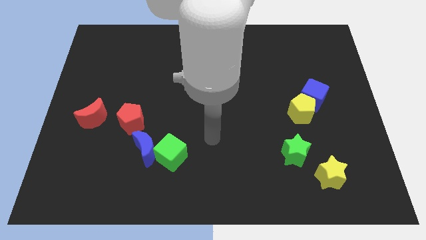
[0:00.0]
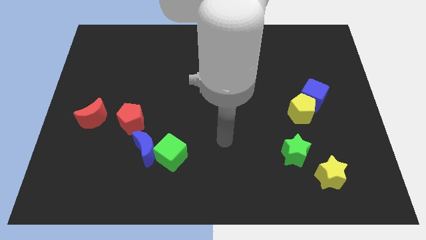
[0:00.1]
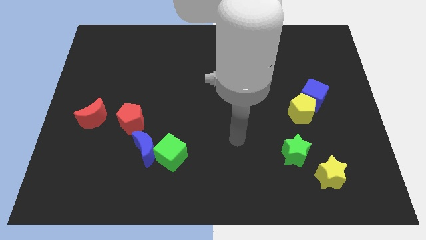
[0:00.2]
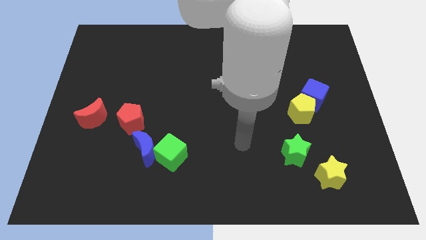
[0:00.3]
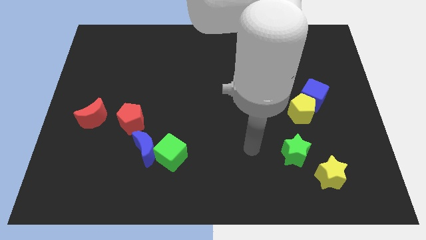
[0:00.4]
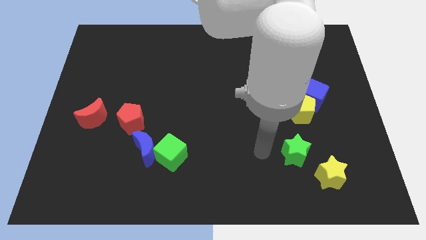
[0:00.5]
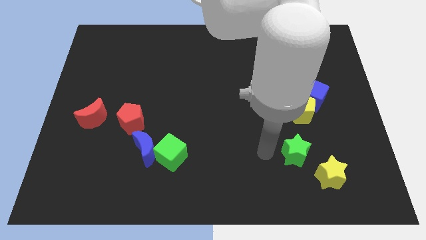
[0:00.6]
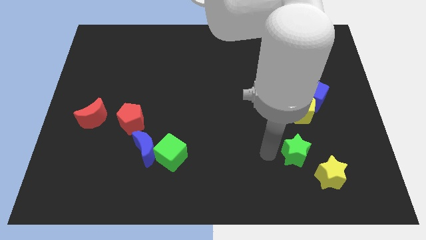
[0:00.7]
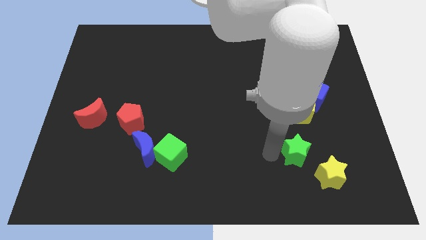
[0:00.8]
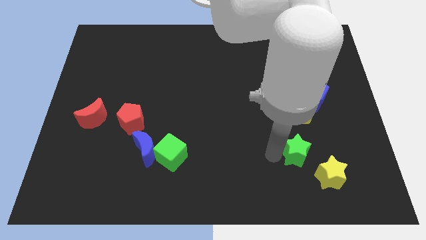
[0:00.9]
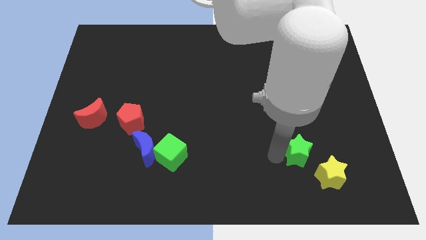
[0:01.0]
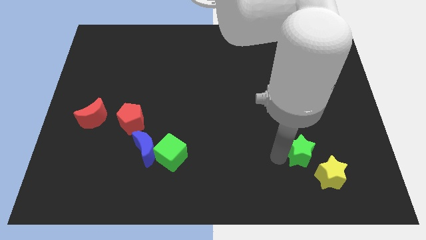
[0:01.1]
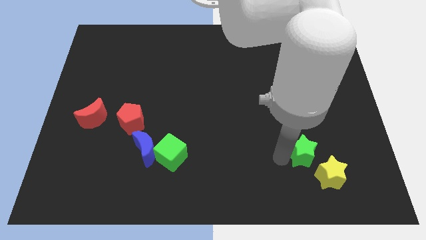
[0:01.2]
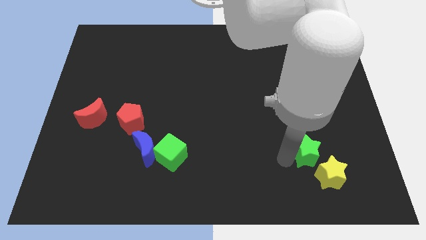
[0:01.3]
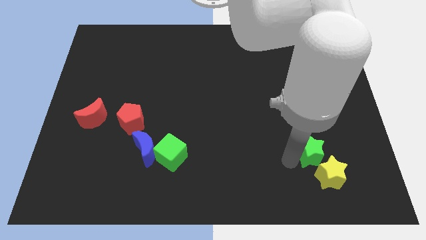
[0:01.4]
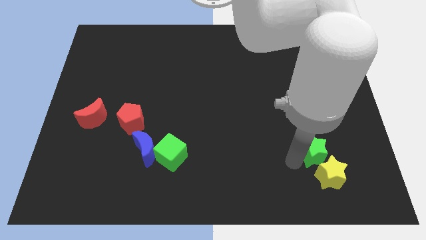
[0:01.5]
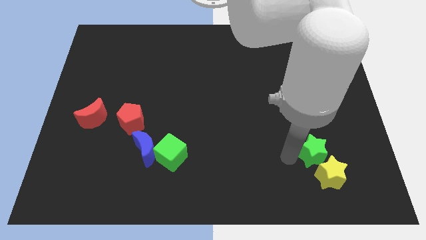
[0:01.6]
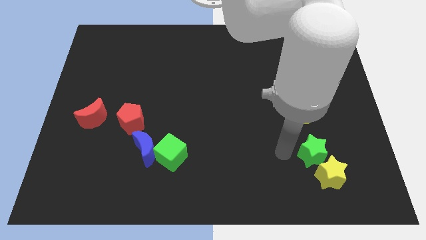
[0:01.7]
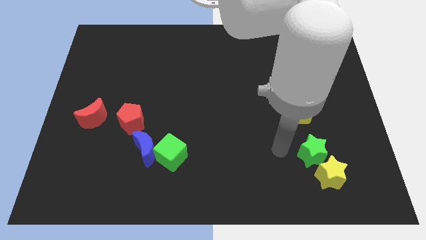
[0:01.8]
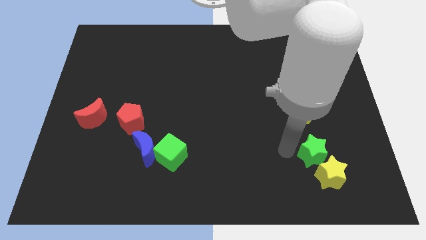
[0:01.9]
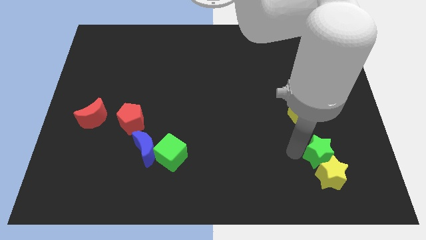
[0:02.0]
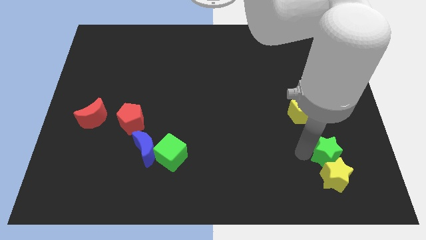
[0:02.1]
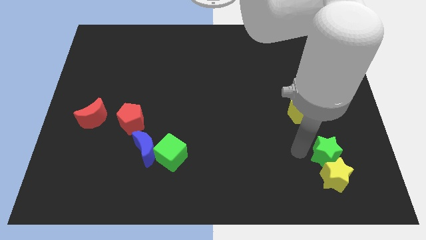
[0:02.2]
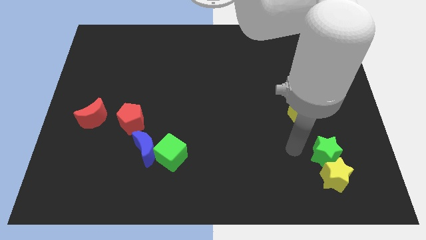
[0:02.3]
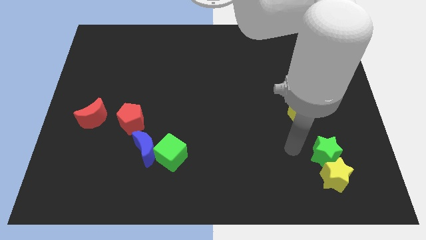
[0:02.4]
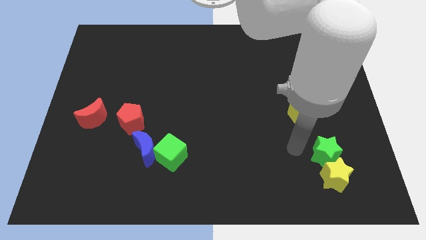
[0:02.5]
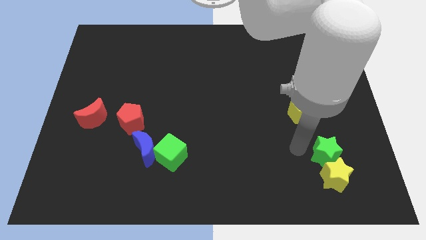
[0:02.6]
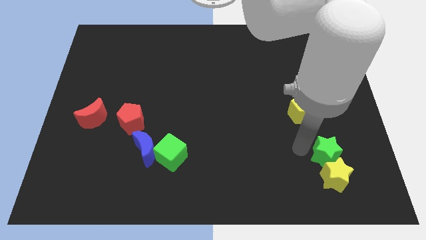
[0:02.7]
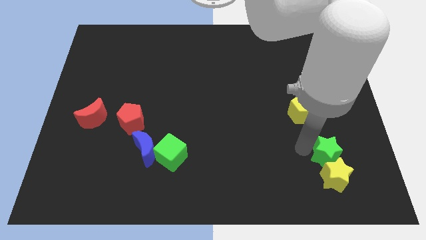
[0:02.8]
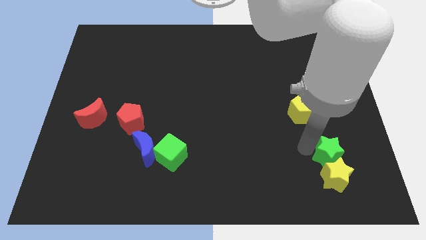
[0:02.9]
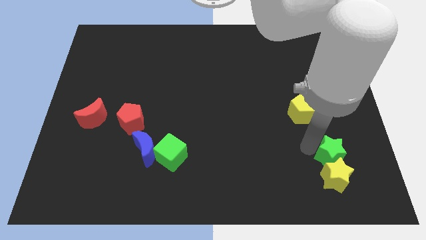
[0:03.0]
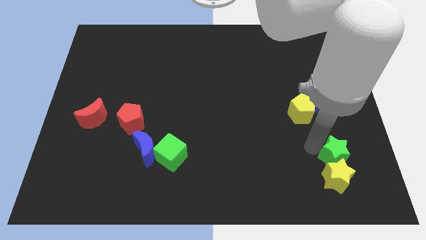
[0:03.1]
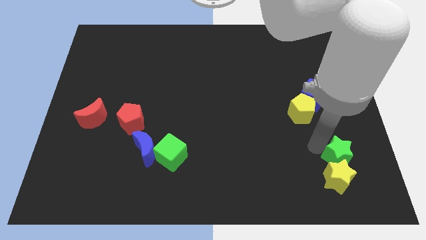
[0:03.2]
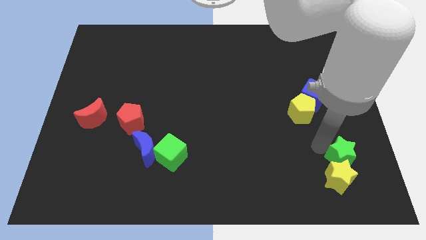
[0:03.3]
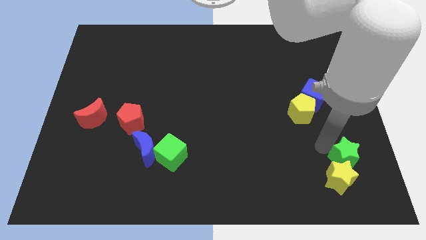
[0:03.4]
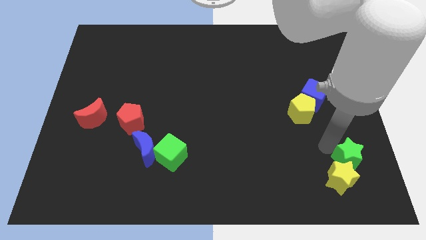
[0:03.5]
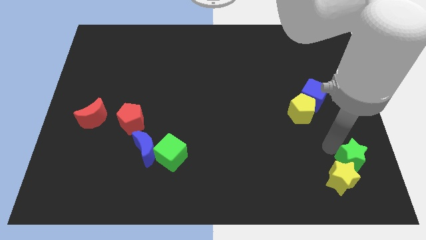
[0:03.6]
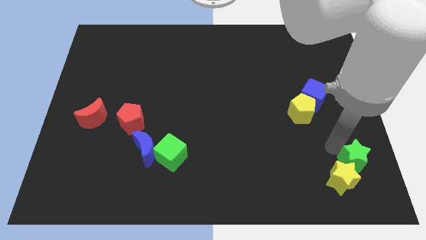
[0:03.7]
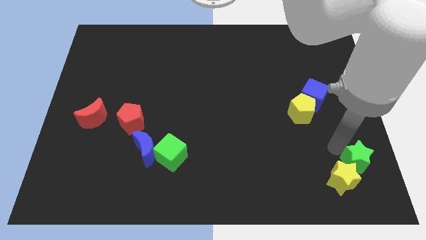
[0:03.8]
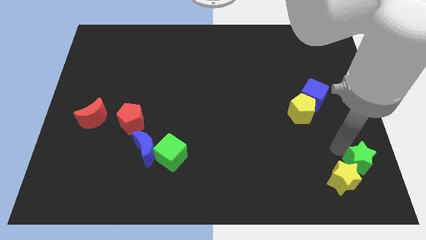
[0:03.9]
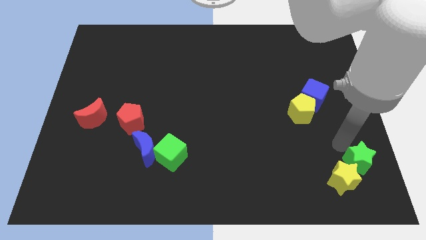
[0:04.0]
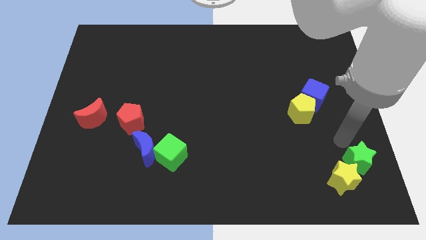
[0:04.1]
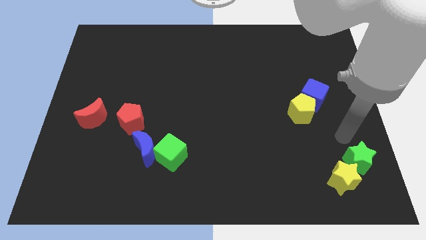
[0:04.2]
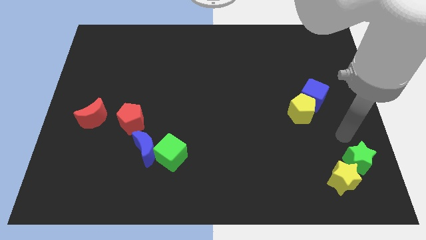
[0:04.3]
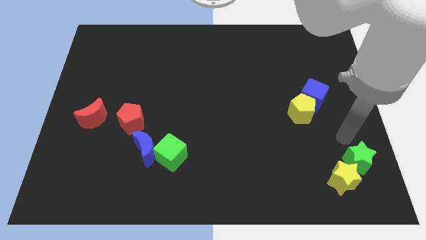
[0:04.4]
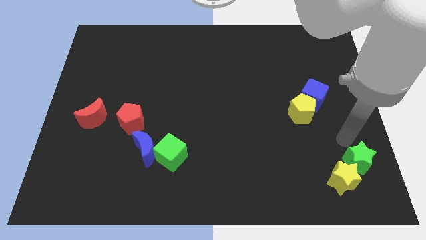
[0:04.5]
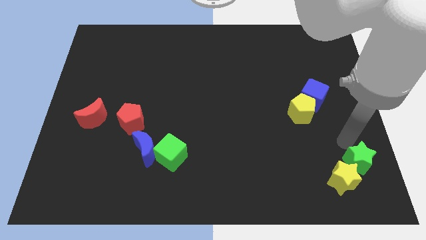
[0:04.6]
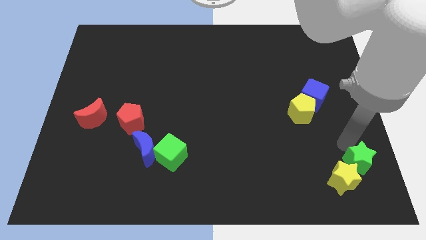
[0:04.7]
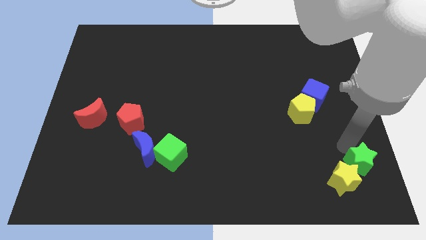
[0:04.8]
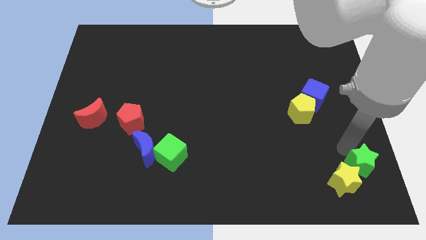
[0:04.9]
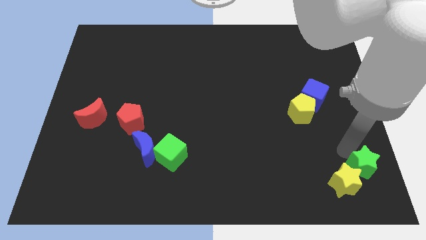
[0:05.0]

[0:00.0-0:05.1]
move the green star to the lower right corner

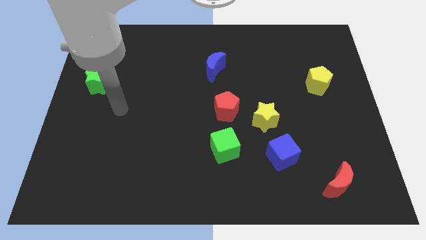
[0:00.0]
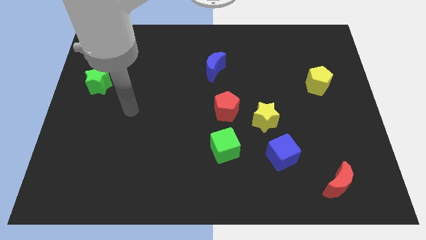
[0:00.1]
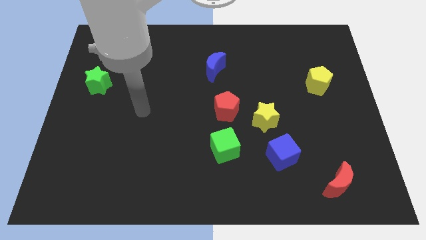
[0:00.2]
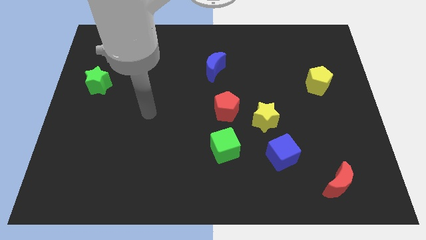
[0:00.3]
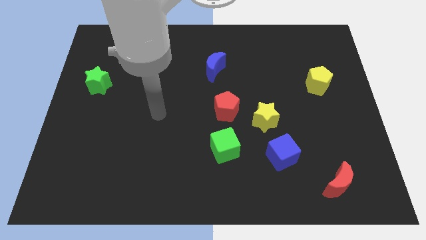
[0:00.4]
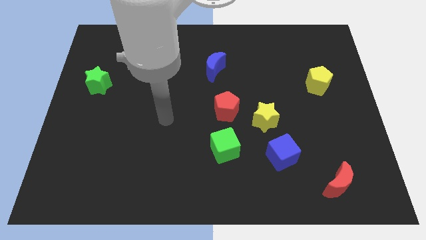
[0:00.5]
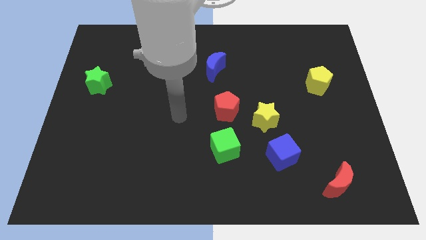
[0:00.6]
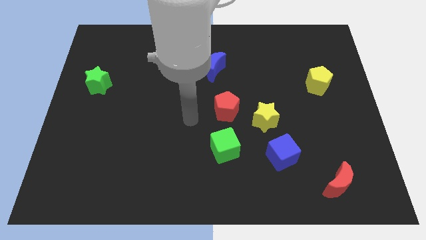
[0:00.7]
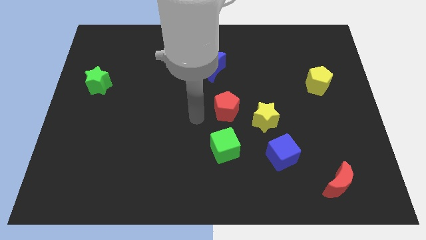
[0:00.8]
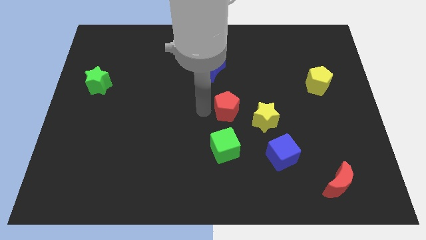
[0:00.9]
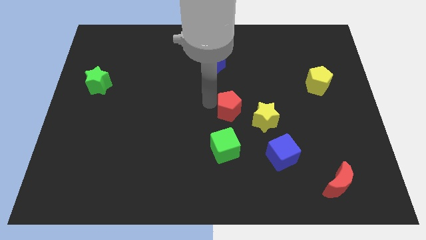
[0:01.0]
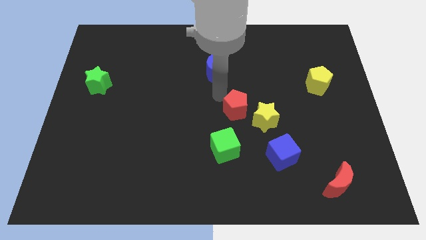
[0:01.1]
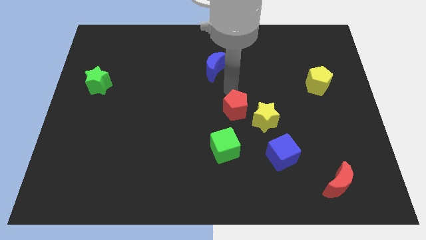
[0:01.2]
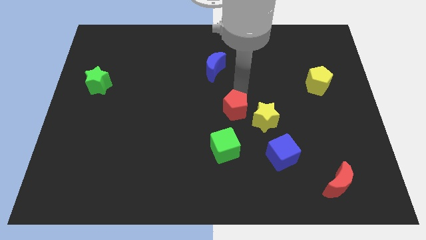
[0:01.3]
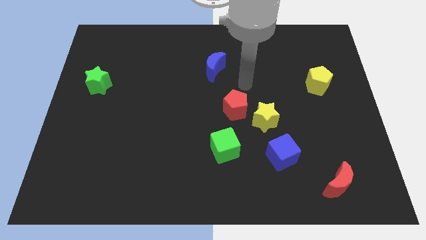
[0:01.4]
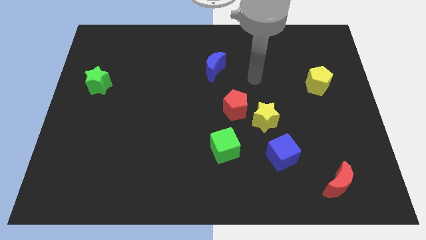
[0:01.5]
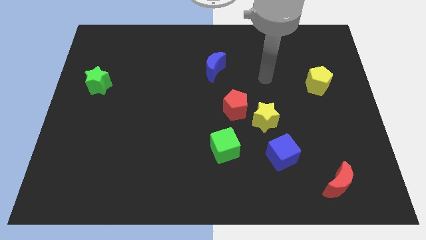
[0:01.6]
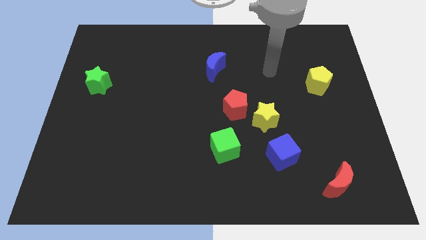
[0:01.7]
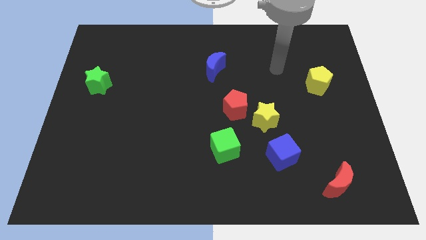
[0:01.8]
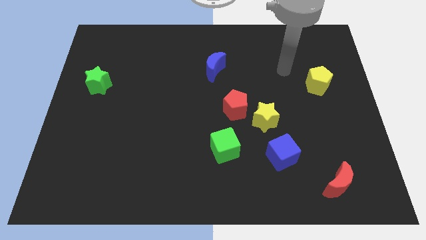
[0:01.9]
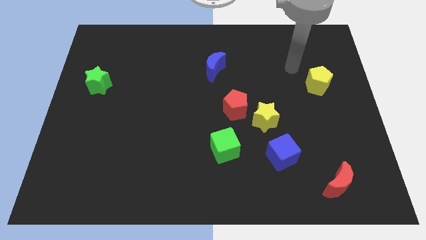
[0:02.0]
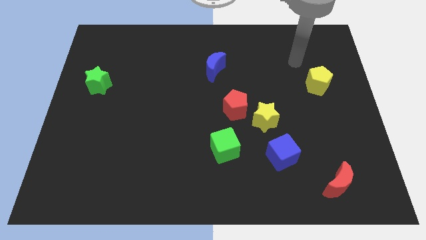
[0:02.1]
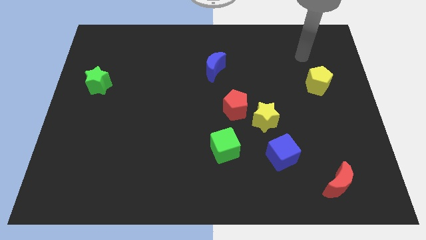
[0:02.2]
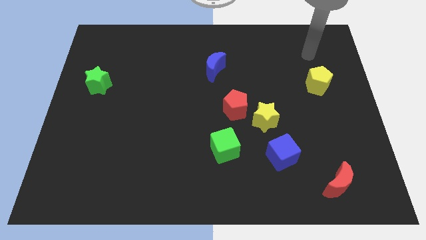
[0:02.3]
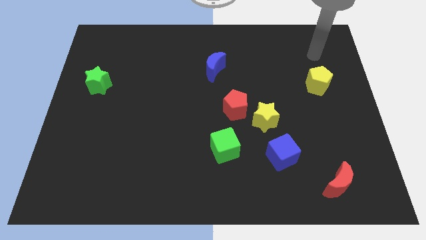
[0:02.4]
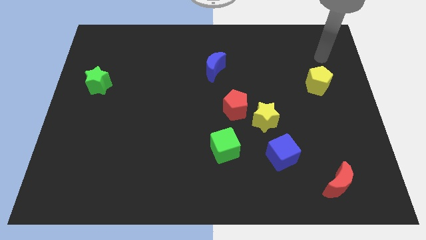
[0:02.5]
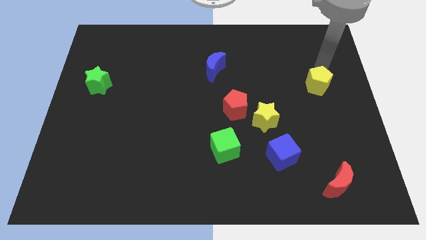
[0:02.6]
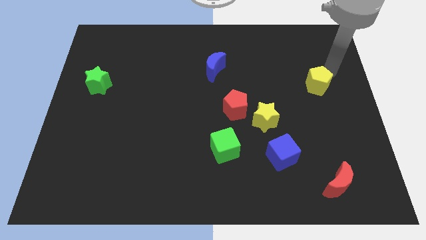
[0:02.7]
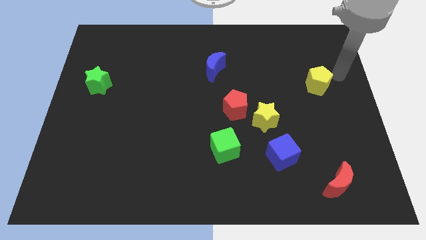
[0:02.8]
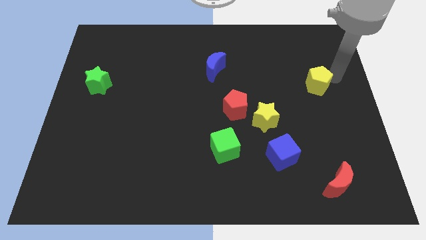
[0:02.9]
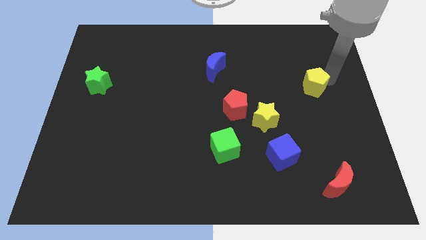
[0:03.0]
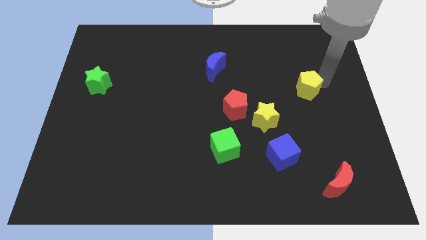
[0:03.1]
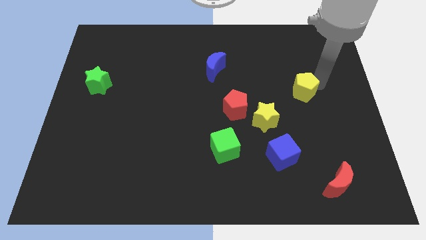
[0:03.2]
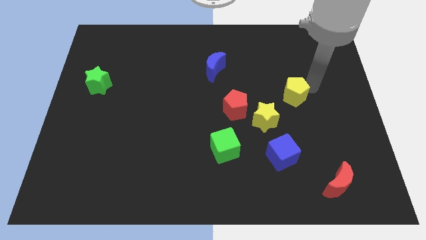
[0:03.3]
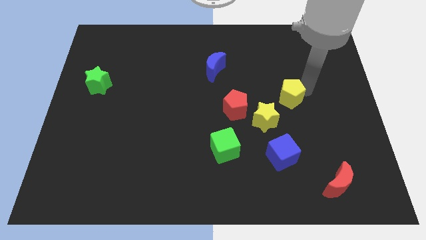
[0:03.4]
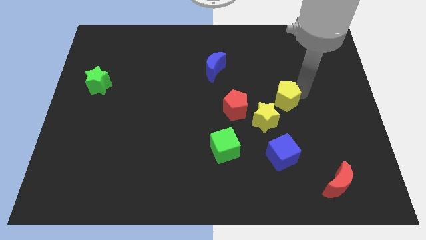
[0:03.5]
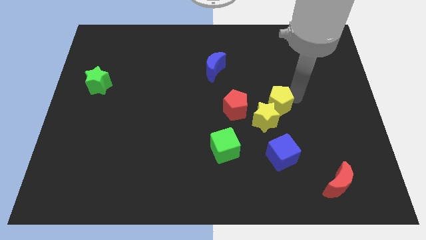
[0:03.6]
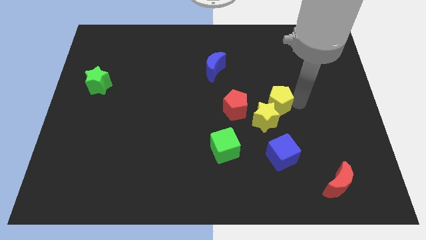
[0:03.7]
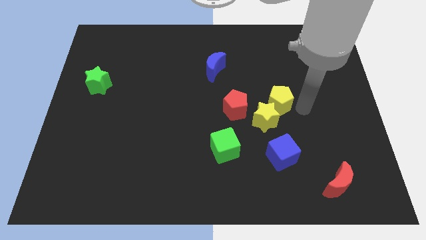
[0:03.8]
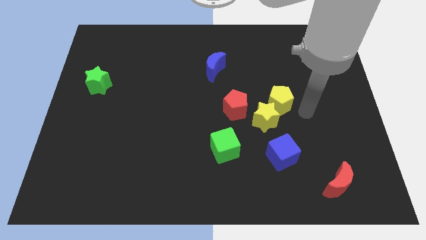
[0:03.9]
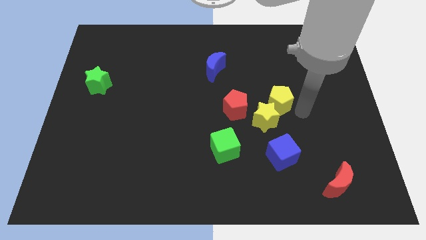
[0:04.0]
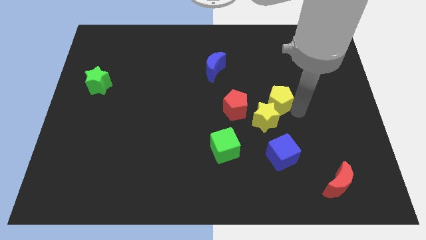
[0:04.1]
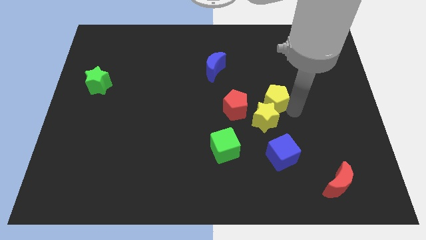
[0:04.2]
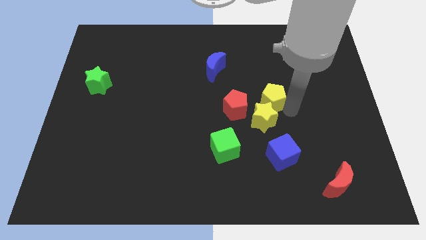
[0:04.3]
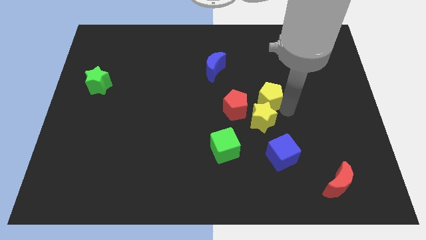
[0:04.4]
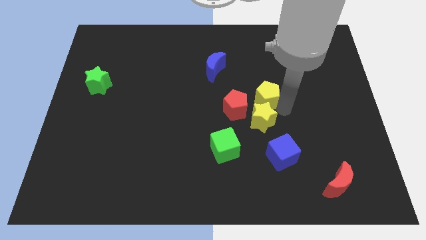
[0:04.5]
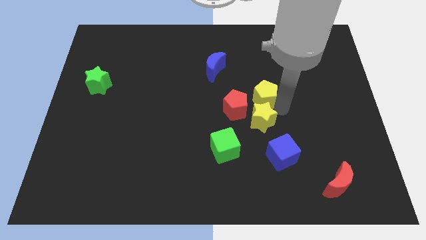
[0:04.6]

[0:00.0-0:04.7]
slide the yellow pentagon to the center of the board
